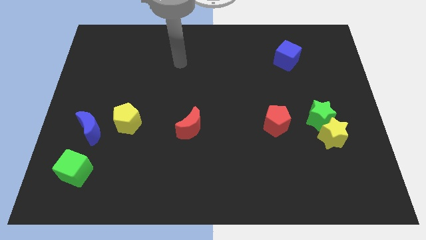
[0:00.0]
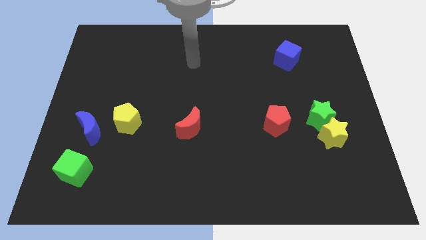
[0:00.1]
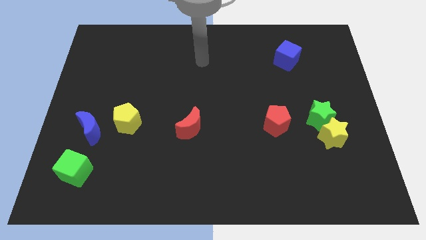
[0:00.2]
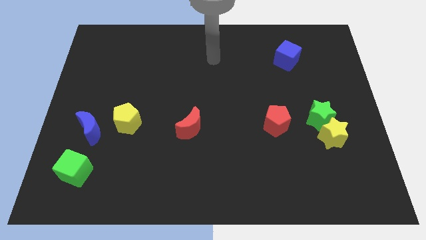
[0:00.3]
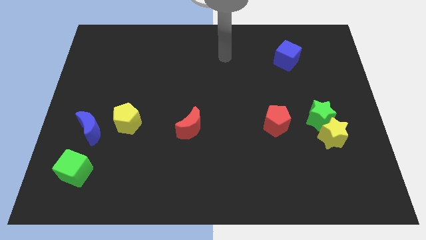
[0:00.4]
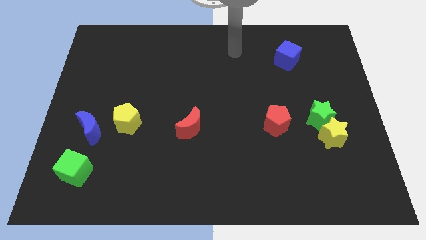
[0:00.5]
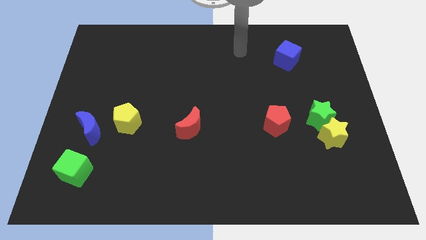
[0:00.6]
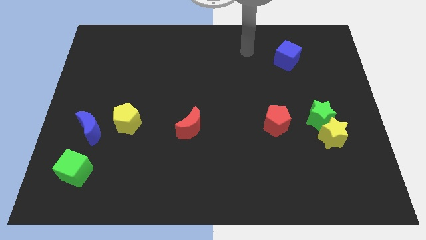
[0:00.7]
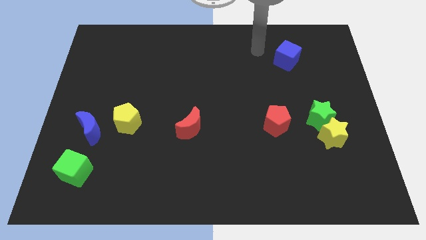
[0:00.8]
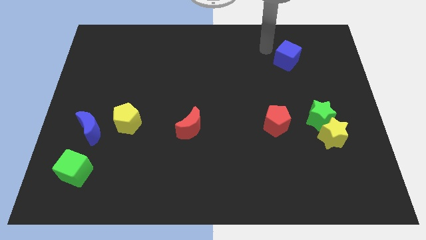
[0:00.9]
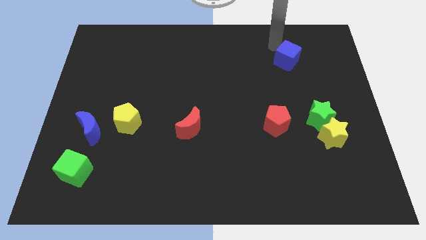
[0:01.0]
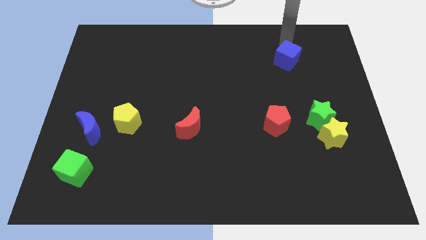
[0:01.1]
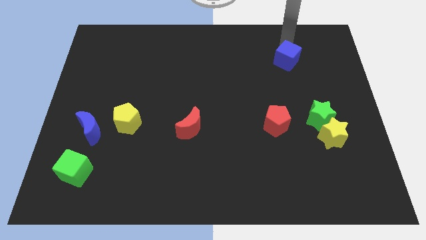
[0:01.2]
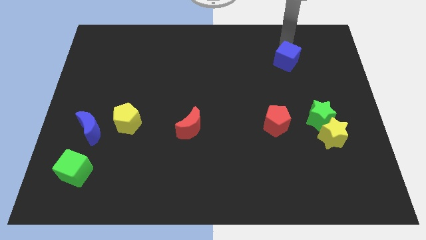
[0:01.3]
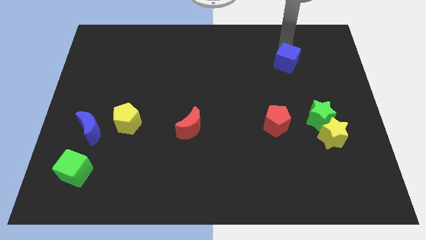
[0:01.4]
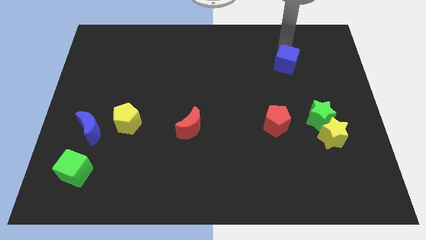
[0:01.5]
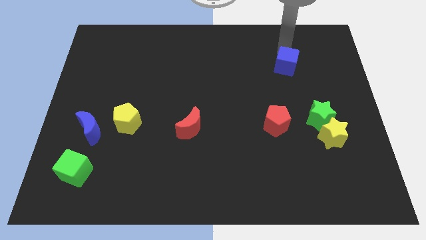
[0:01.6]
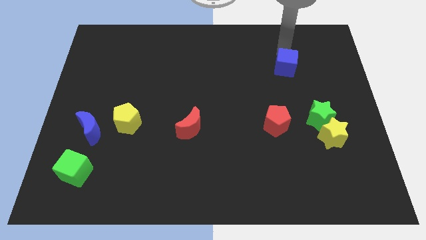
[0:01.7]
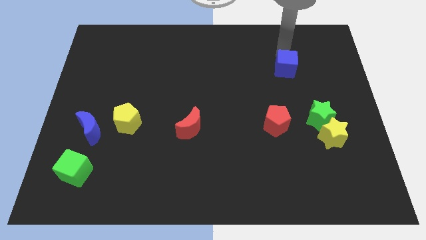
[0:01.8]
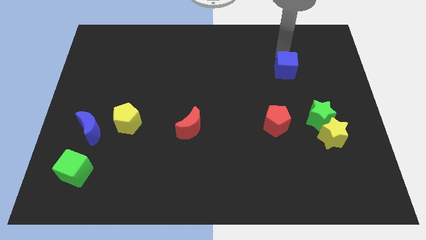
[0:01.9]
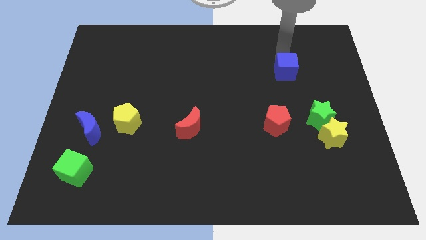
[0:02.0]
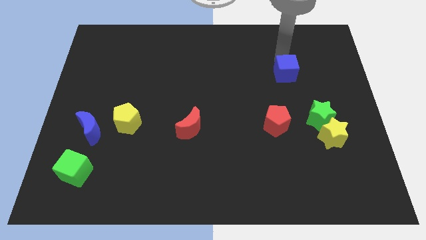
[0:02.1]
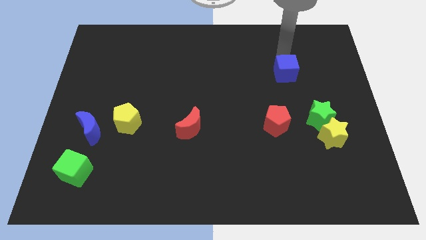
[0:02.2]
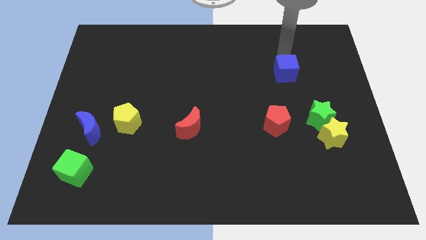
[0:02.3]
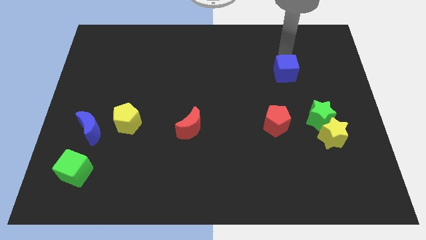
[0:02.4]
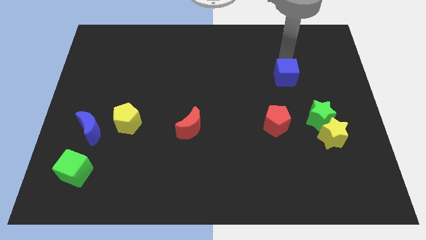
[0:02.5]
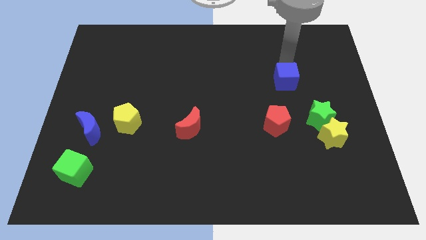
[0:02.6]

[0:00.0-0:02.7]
slightly slide the blue cube down

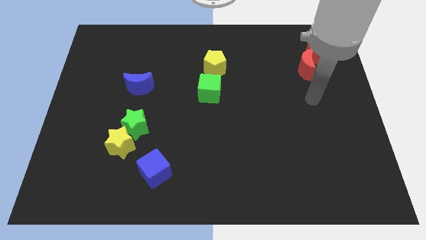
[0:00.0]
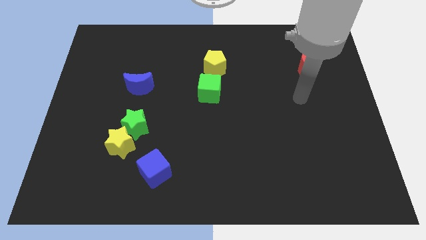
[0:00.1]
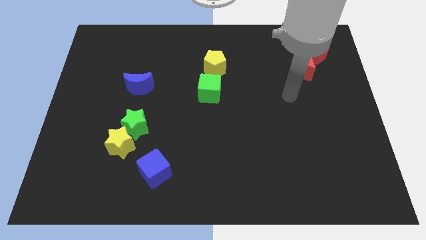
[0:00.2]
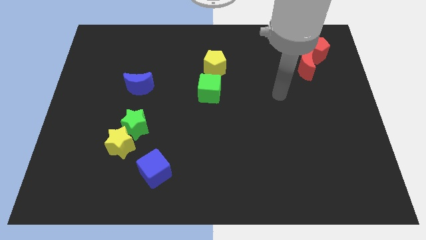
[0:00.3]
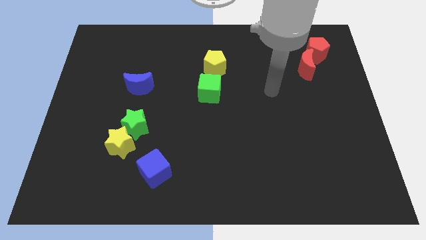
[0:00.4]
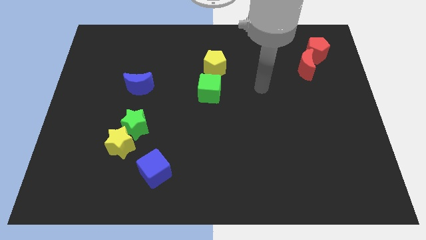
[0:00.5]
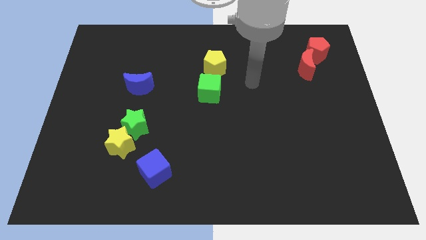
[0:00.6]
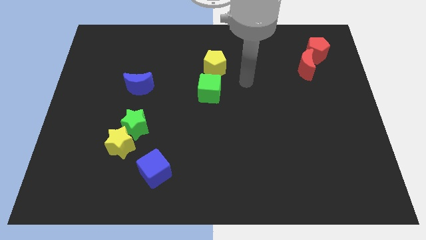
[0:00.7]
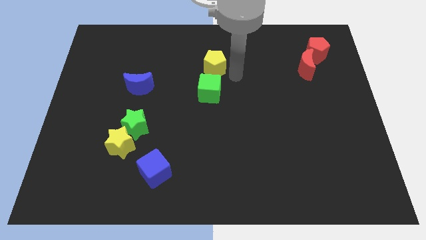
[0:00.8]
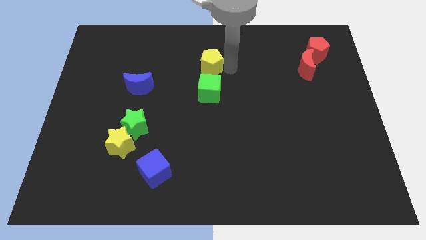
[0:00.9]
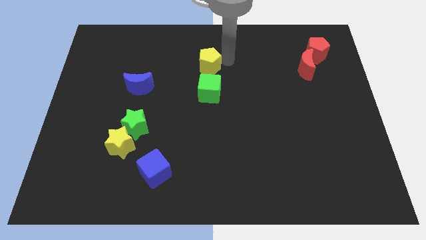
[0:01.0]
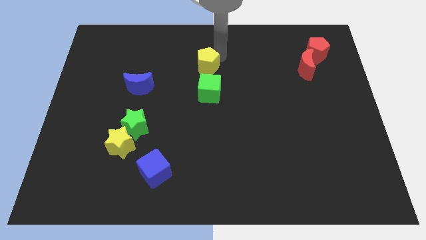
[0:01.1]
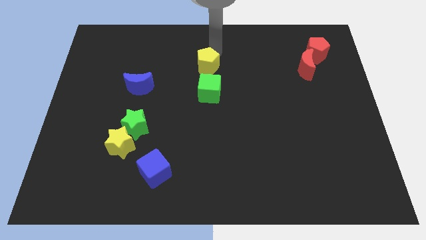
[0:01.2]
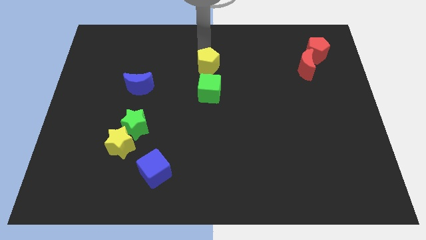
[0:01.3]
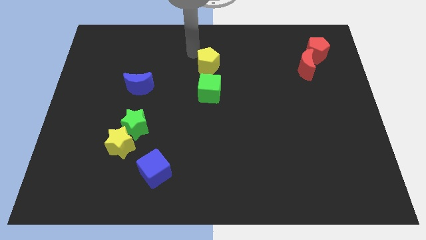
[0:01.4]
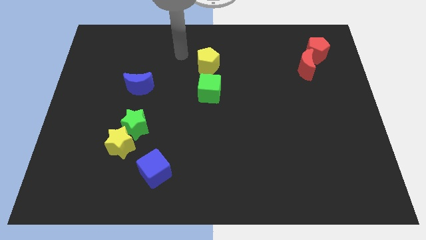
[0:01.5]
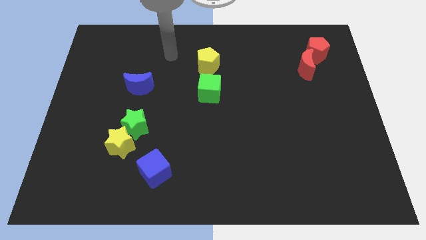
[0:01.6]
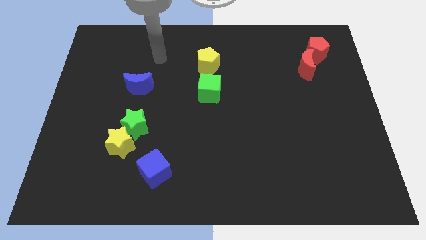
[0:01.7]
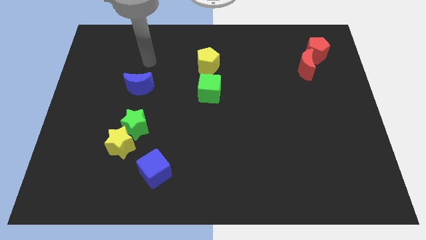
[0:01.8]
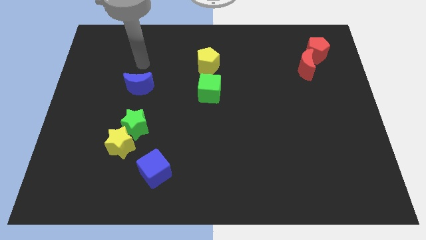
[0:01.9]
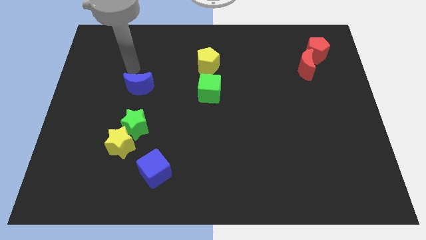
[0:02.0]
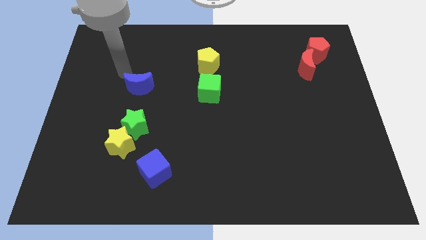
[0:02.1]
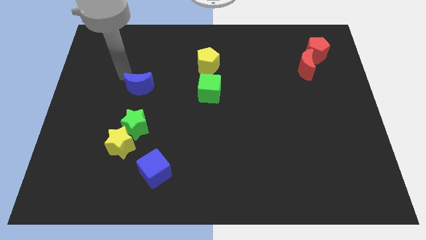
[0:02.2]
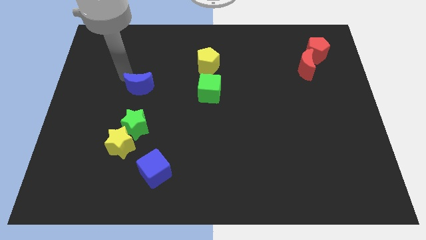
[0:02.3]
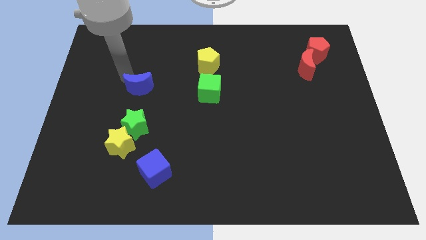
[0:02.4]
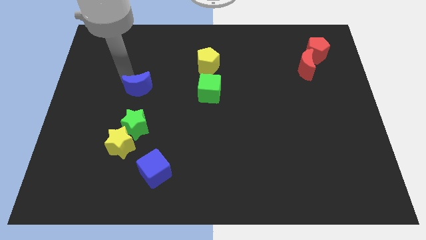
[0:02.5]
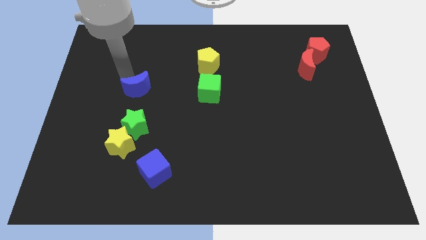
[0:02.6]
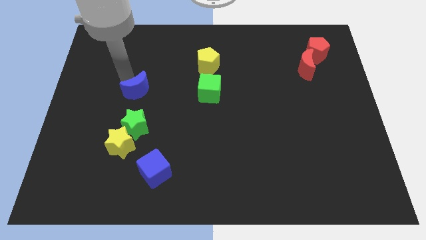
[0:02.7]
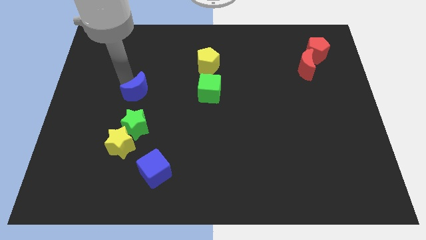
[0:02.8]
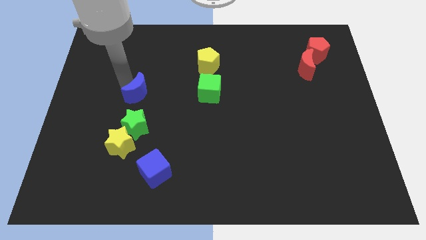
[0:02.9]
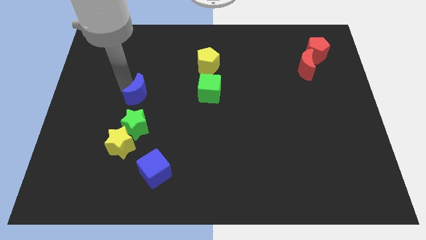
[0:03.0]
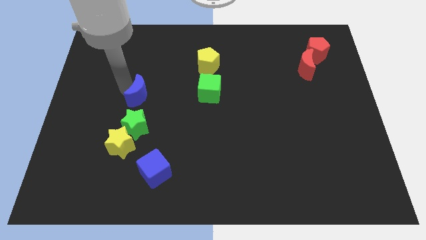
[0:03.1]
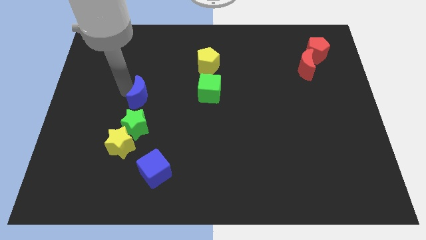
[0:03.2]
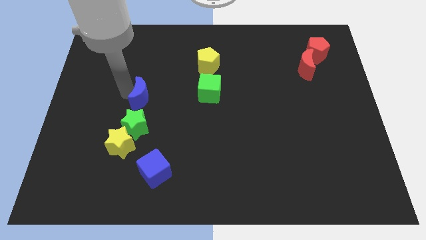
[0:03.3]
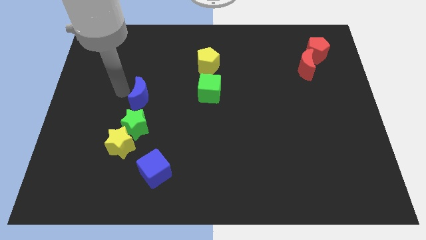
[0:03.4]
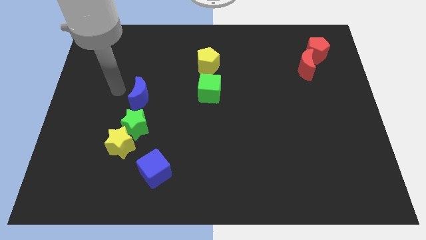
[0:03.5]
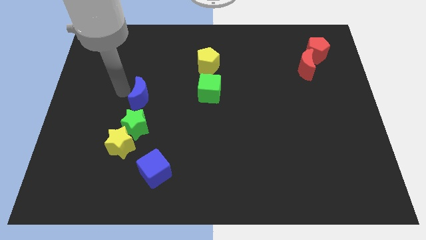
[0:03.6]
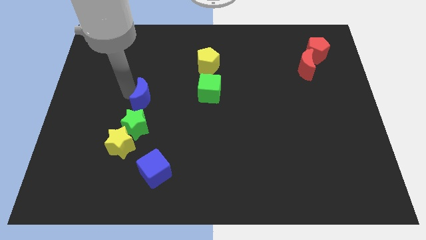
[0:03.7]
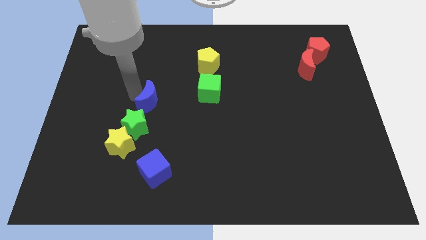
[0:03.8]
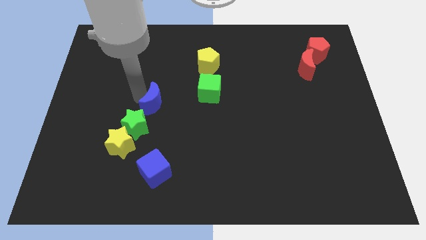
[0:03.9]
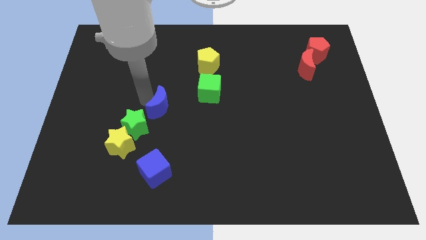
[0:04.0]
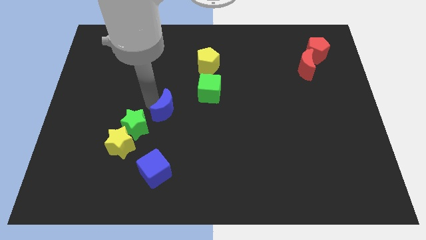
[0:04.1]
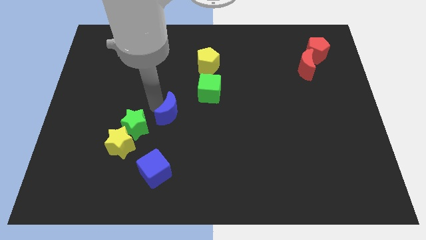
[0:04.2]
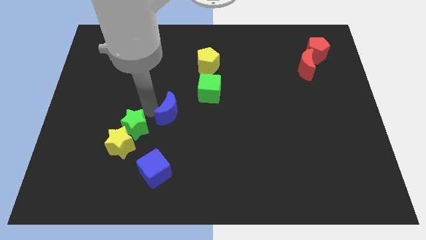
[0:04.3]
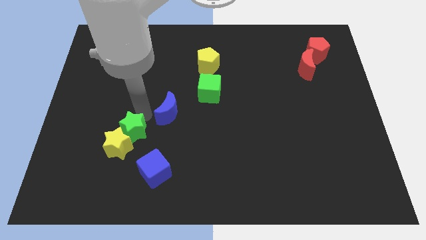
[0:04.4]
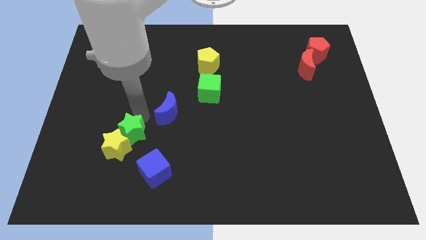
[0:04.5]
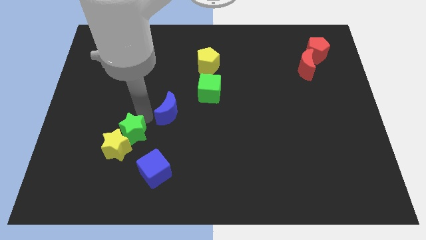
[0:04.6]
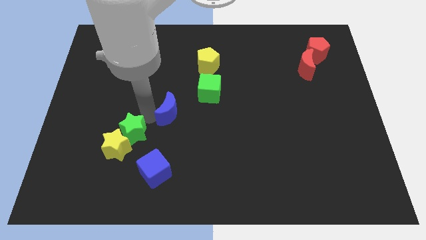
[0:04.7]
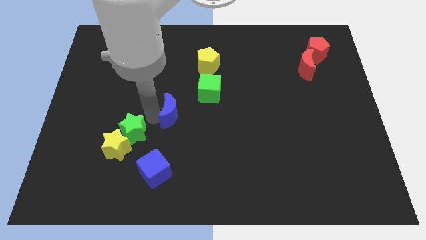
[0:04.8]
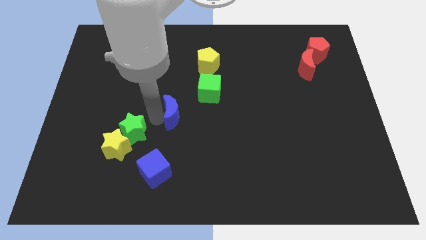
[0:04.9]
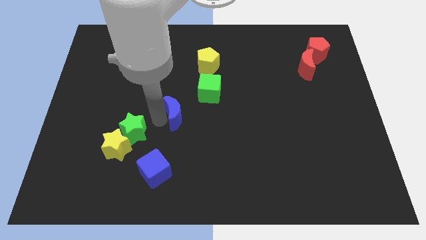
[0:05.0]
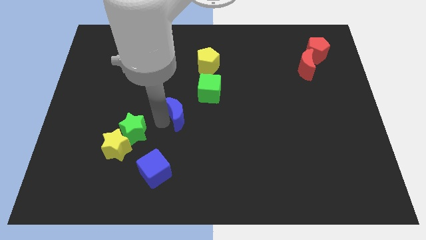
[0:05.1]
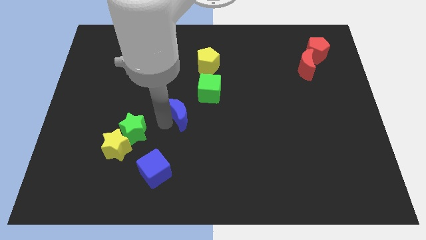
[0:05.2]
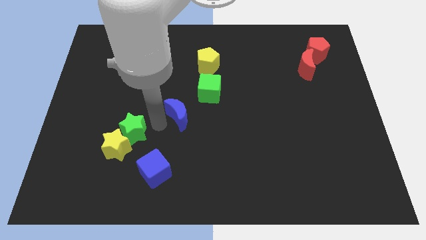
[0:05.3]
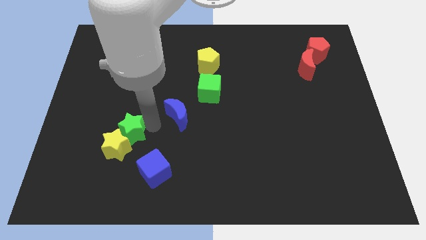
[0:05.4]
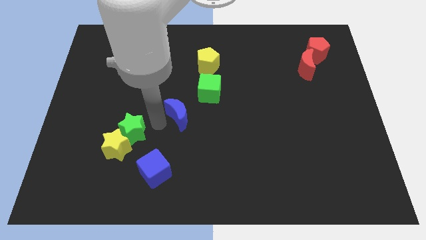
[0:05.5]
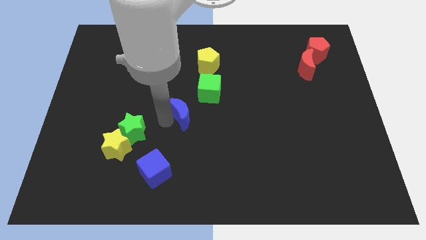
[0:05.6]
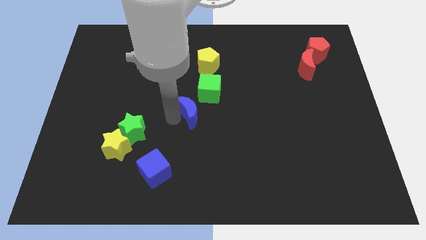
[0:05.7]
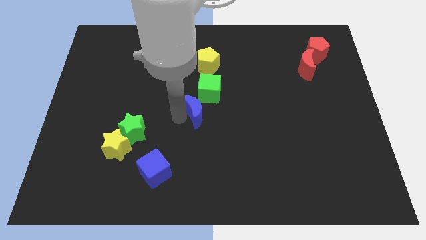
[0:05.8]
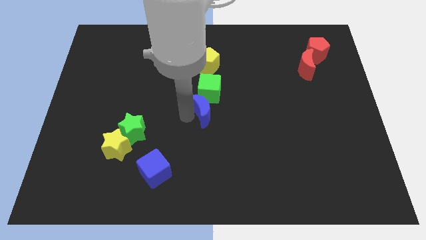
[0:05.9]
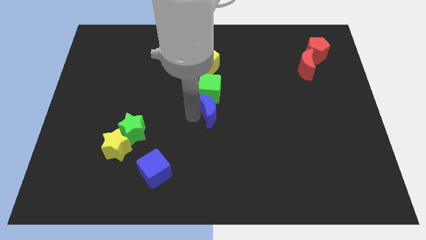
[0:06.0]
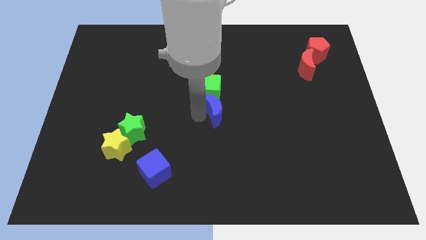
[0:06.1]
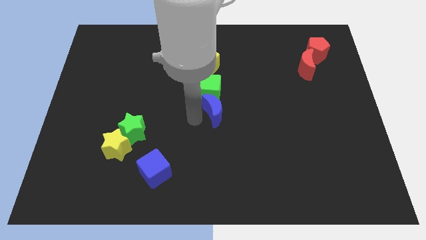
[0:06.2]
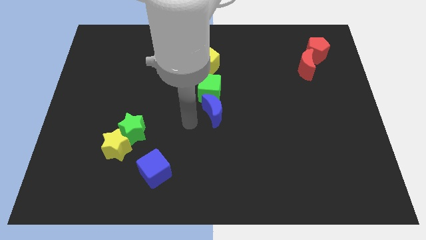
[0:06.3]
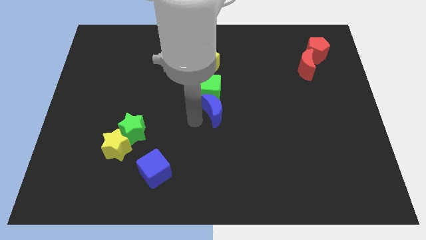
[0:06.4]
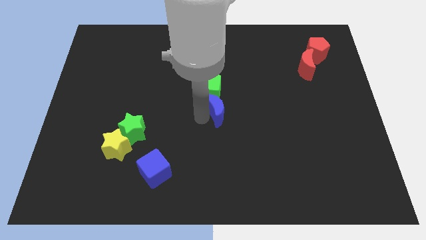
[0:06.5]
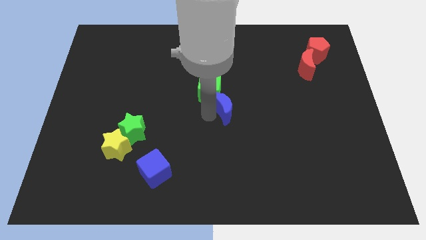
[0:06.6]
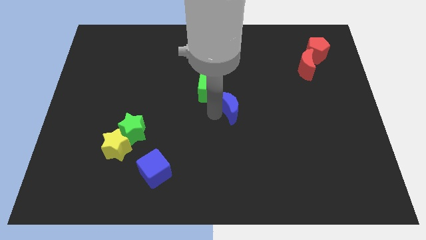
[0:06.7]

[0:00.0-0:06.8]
slide the blue moon right
